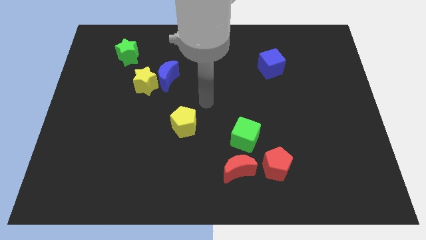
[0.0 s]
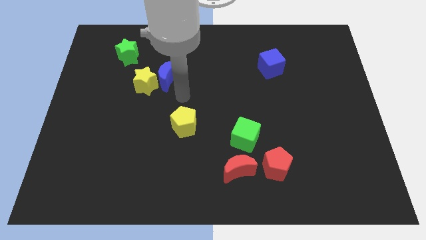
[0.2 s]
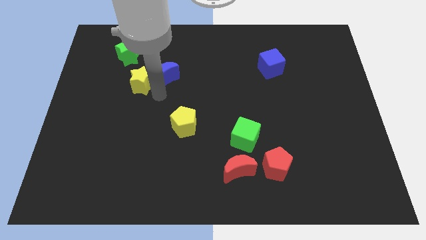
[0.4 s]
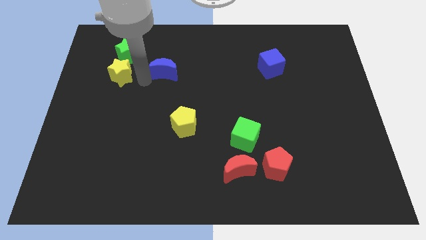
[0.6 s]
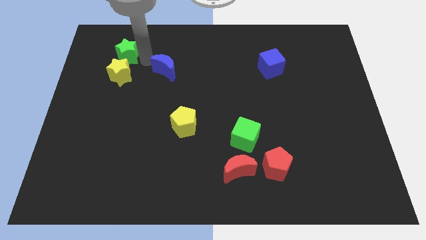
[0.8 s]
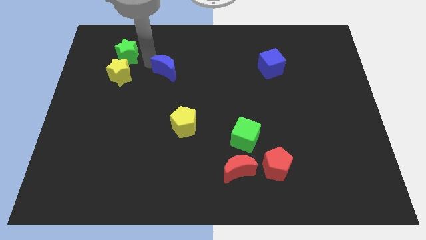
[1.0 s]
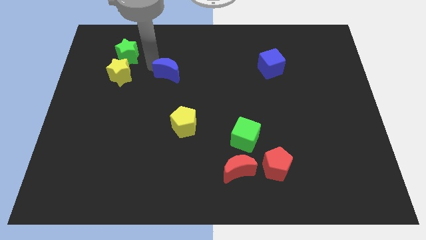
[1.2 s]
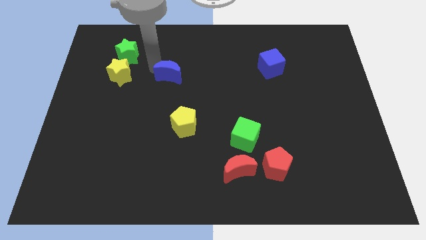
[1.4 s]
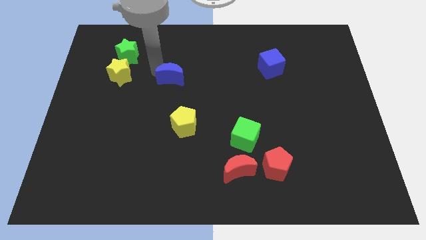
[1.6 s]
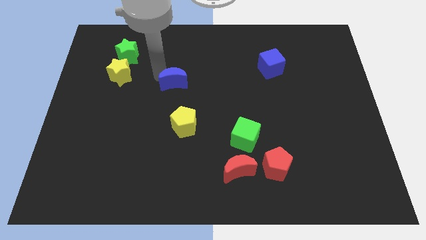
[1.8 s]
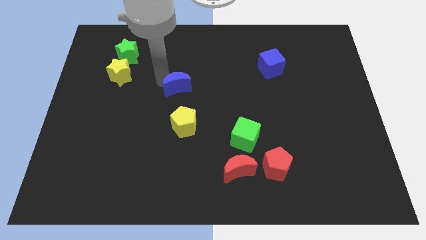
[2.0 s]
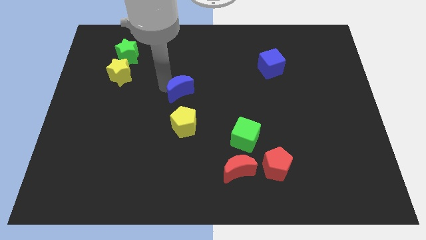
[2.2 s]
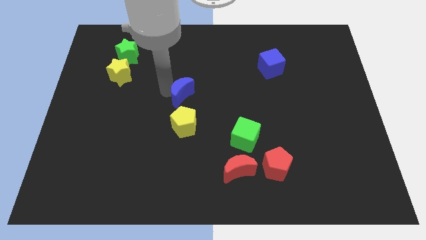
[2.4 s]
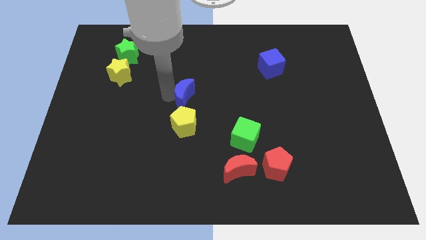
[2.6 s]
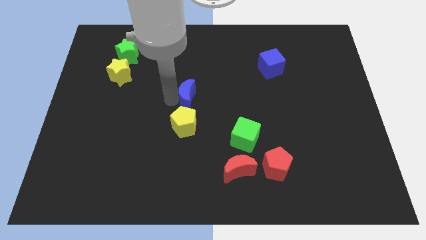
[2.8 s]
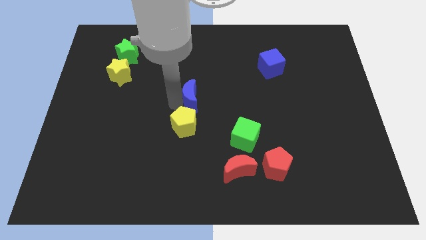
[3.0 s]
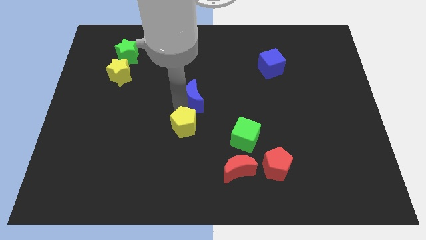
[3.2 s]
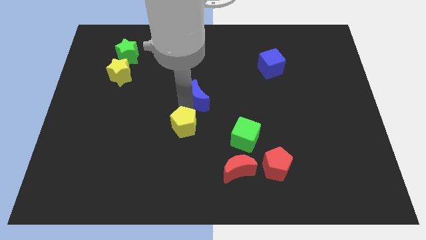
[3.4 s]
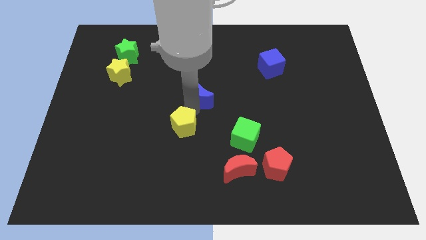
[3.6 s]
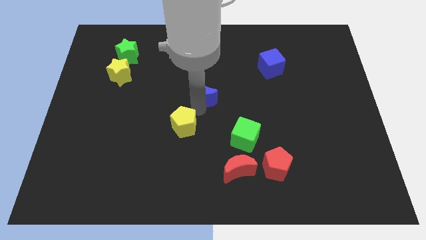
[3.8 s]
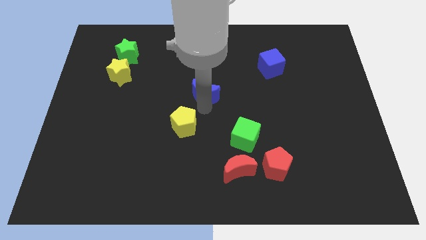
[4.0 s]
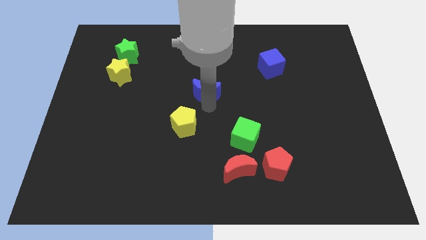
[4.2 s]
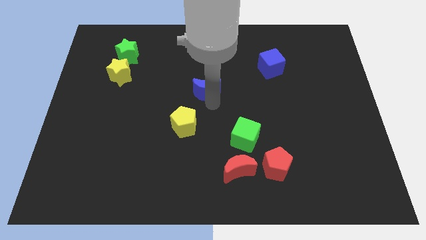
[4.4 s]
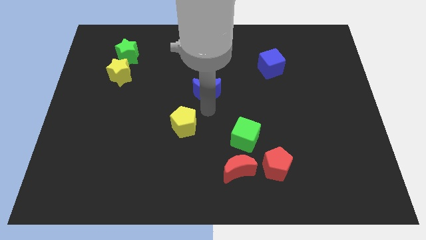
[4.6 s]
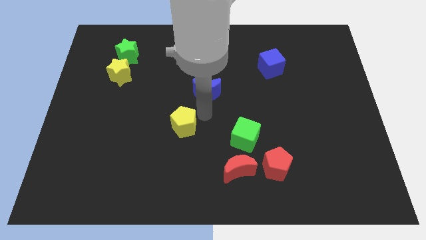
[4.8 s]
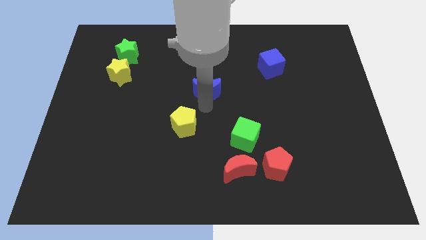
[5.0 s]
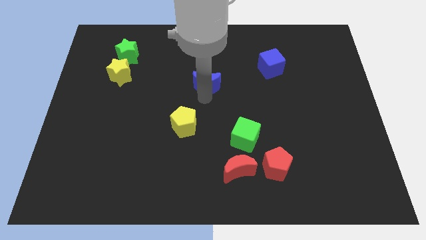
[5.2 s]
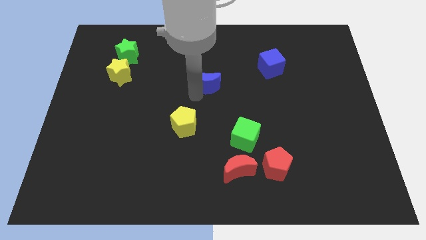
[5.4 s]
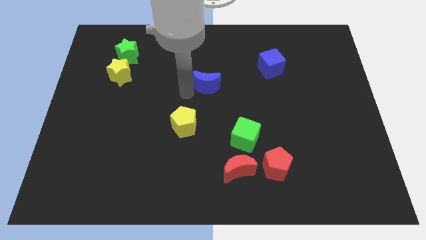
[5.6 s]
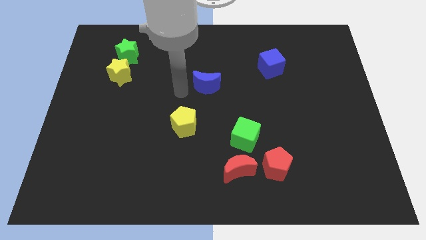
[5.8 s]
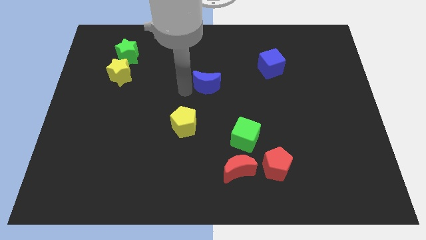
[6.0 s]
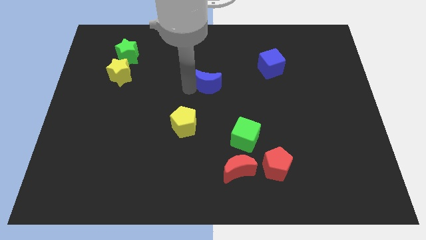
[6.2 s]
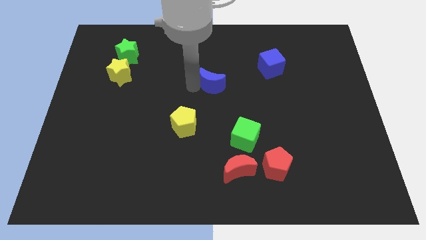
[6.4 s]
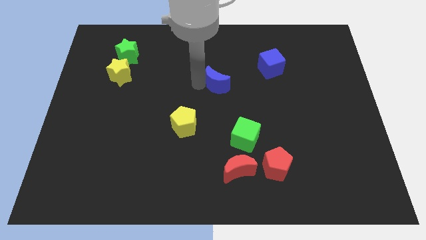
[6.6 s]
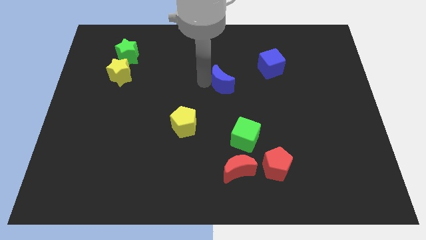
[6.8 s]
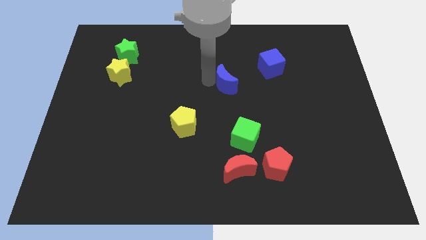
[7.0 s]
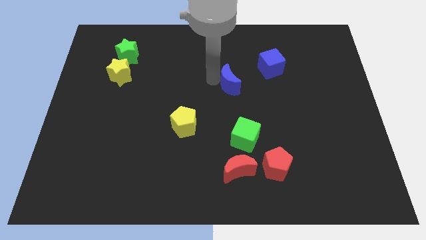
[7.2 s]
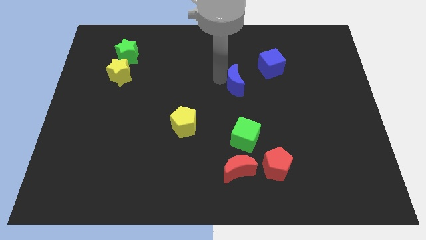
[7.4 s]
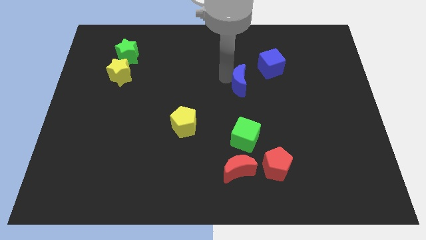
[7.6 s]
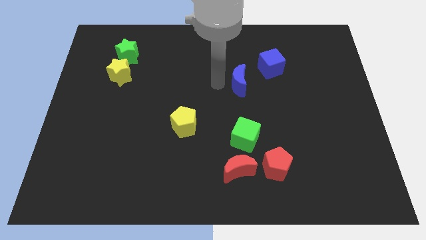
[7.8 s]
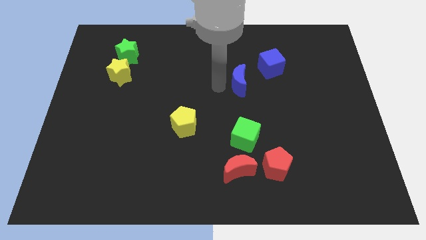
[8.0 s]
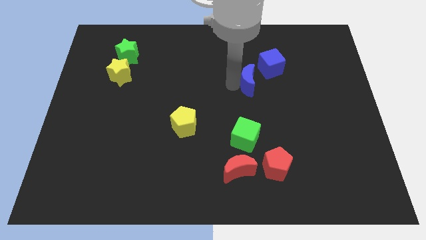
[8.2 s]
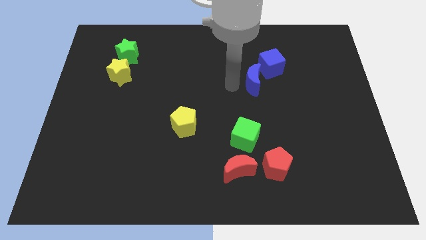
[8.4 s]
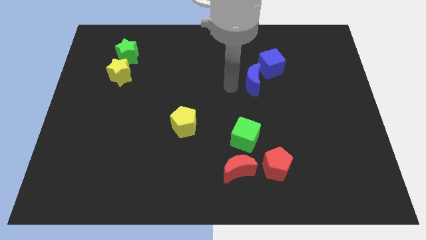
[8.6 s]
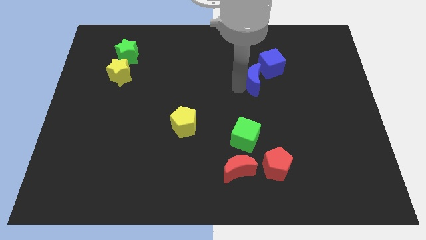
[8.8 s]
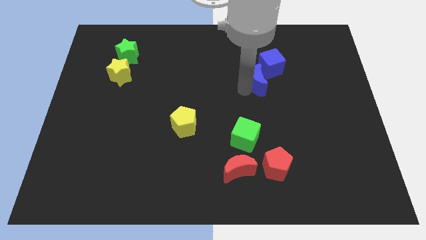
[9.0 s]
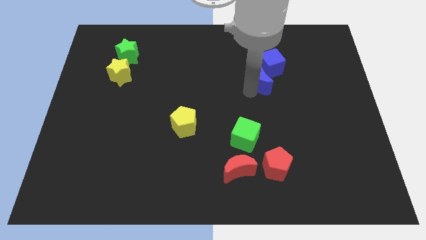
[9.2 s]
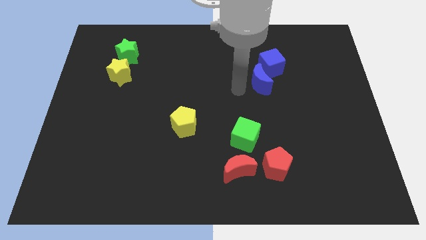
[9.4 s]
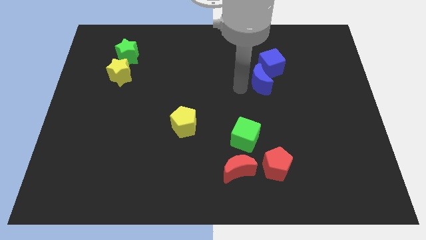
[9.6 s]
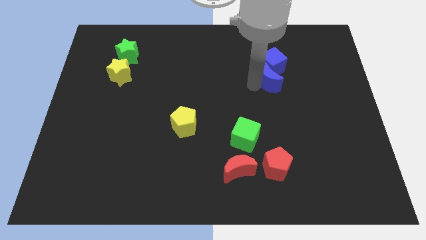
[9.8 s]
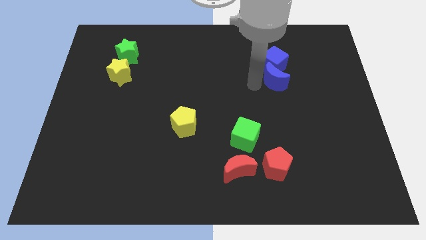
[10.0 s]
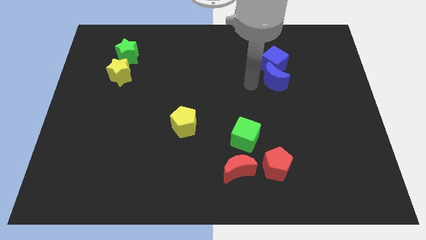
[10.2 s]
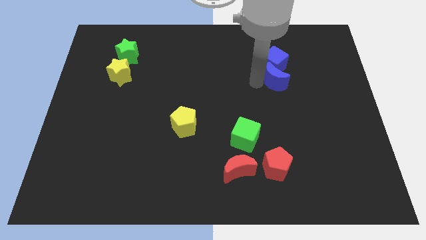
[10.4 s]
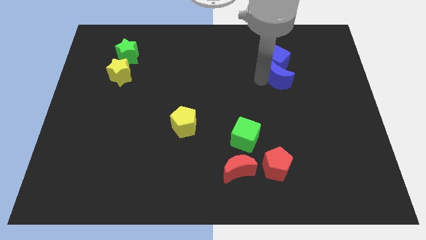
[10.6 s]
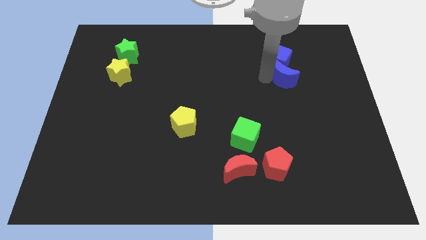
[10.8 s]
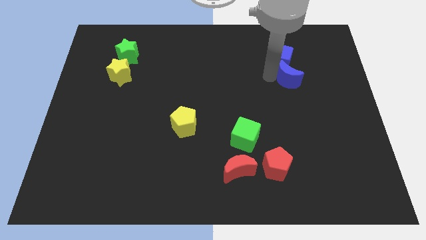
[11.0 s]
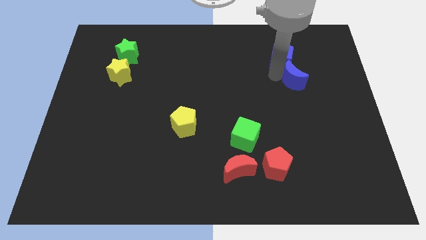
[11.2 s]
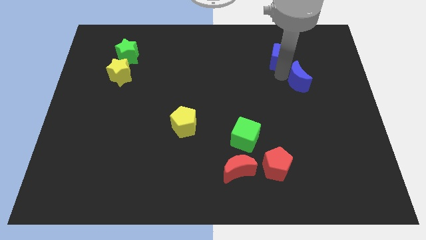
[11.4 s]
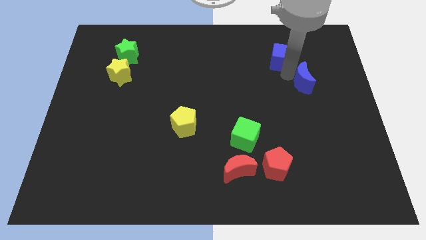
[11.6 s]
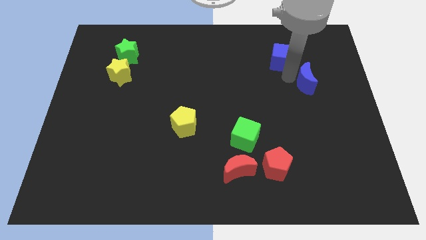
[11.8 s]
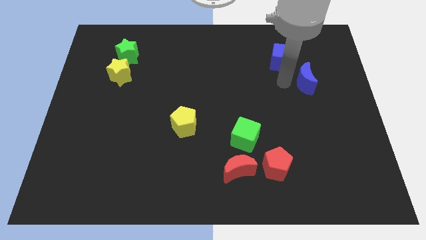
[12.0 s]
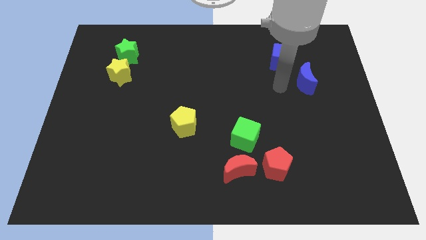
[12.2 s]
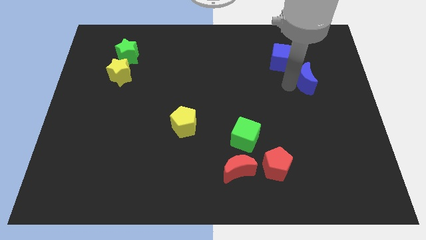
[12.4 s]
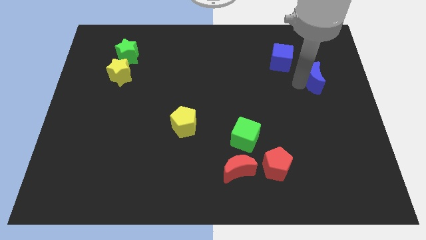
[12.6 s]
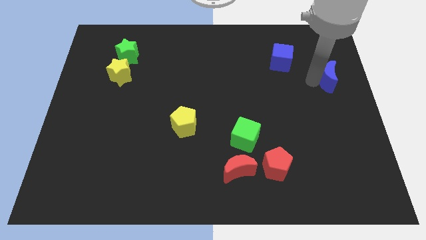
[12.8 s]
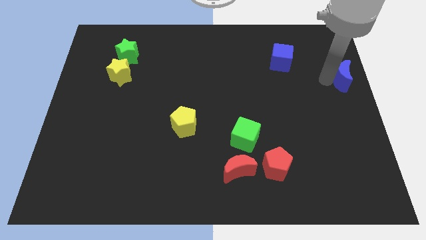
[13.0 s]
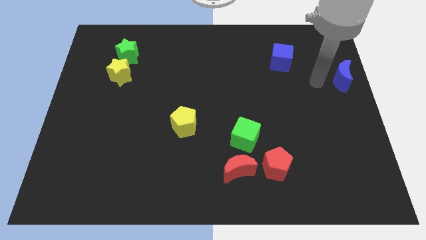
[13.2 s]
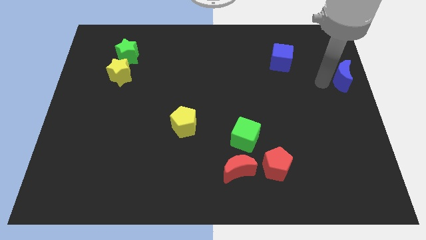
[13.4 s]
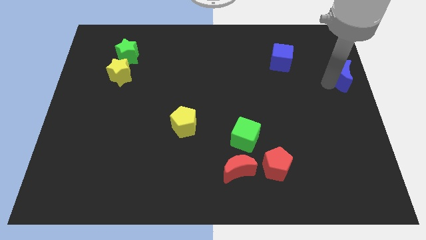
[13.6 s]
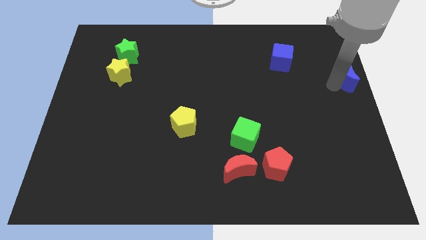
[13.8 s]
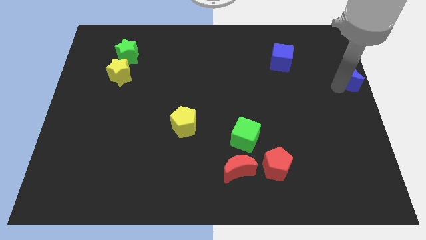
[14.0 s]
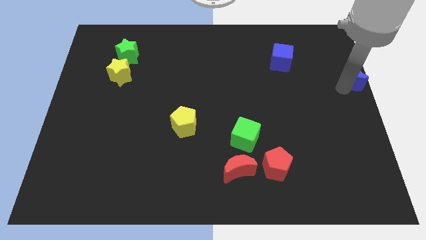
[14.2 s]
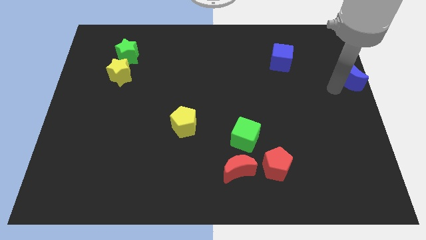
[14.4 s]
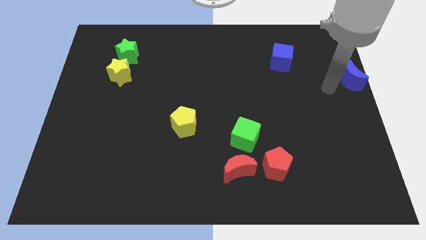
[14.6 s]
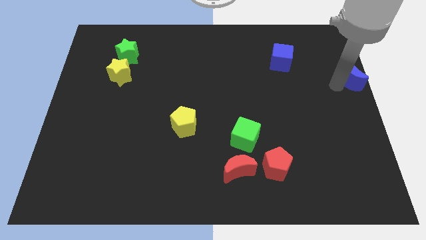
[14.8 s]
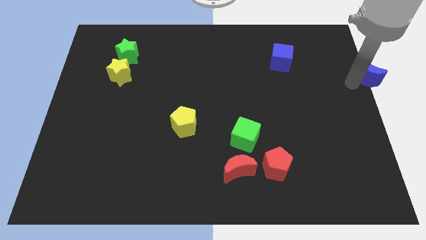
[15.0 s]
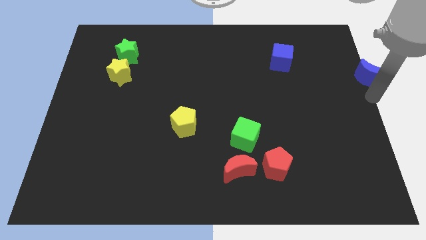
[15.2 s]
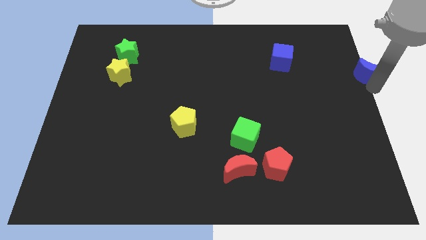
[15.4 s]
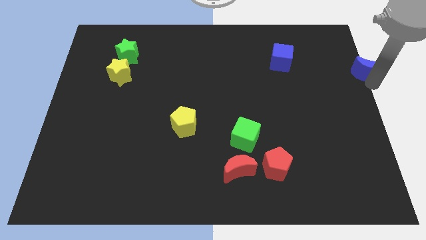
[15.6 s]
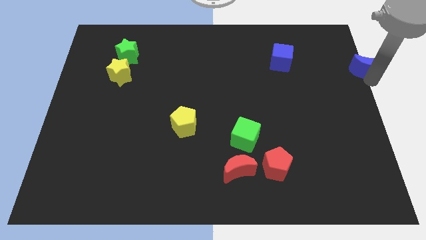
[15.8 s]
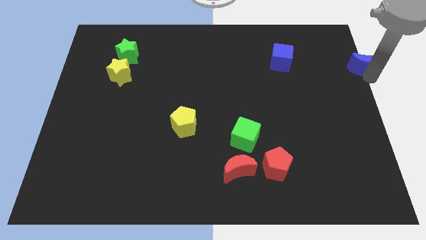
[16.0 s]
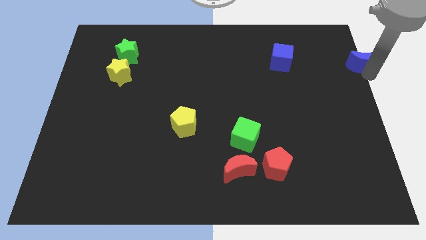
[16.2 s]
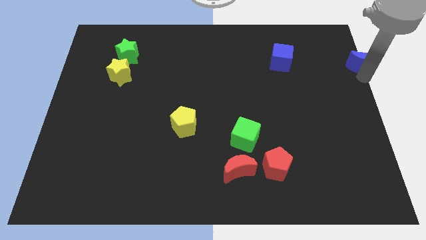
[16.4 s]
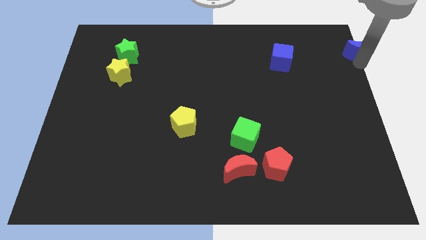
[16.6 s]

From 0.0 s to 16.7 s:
move the blue moon to the top right corner
